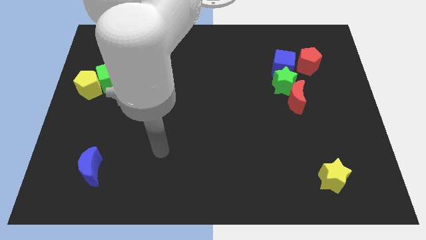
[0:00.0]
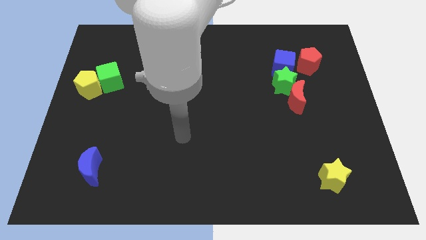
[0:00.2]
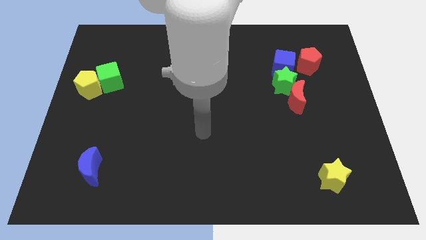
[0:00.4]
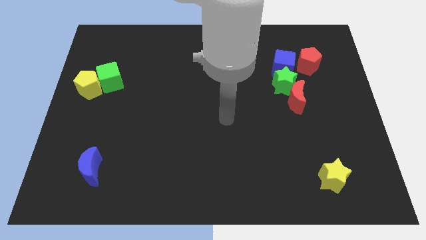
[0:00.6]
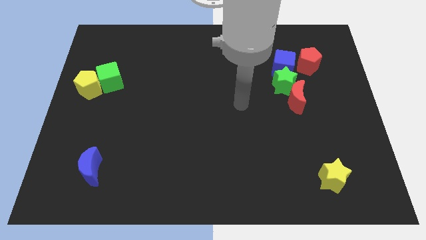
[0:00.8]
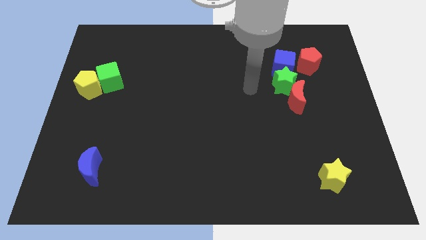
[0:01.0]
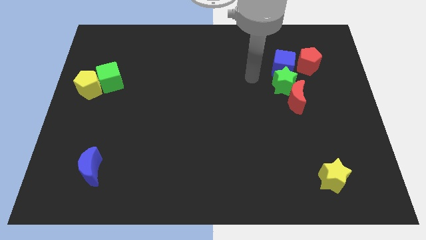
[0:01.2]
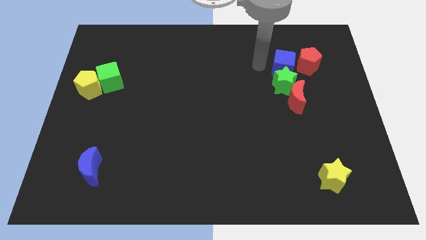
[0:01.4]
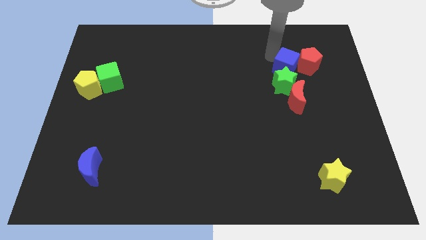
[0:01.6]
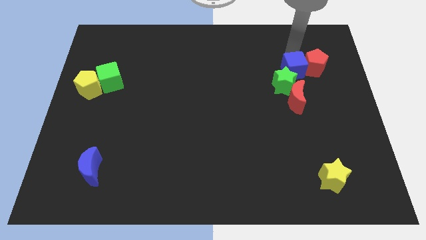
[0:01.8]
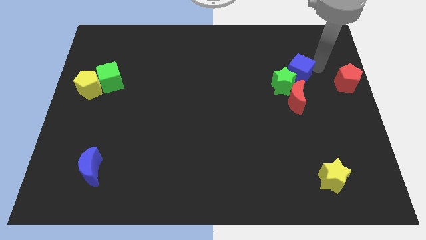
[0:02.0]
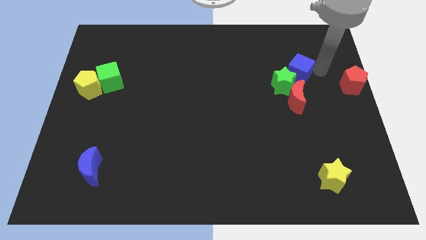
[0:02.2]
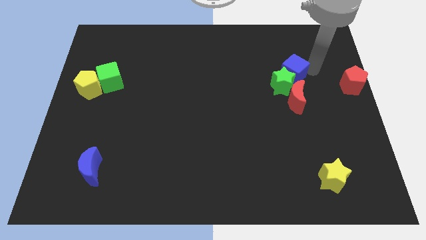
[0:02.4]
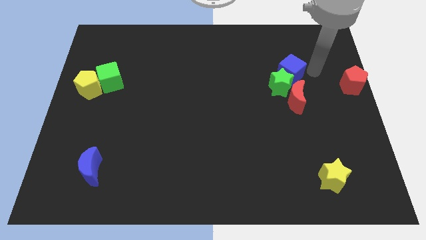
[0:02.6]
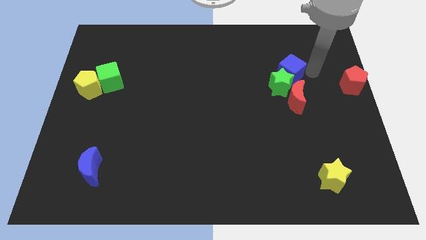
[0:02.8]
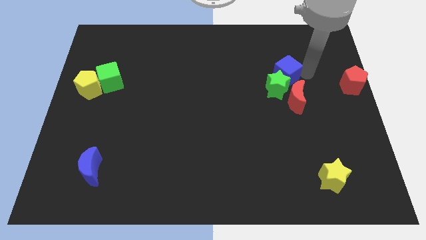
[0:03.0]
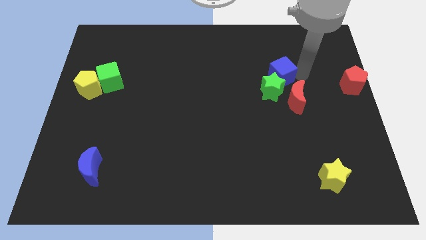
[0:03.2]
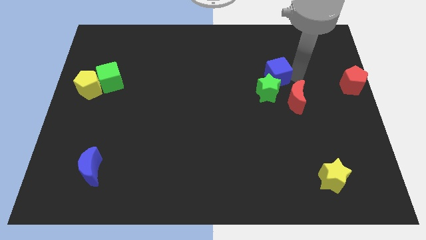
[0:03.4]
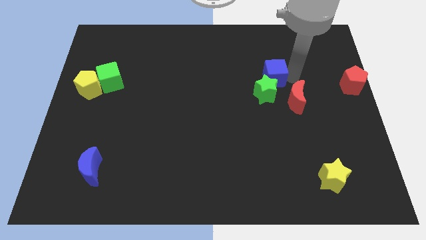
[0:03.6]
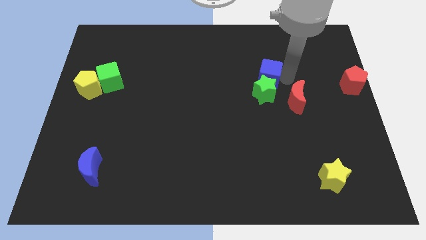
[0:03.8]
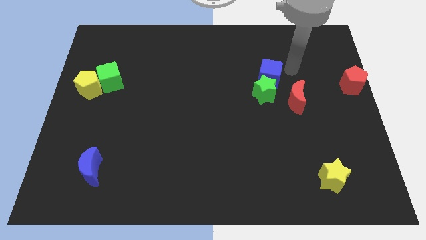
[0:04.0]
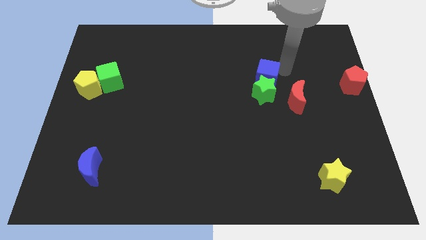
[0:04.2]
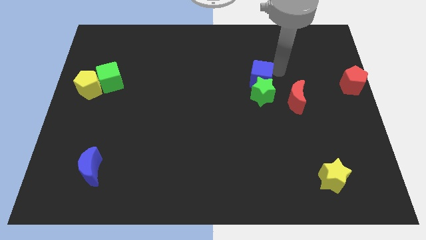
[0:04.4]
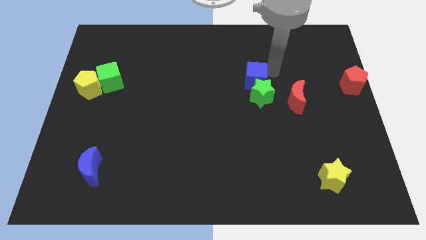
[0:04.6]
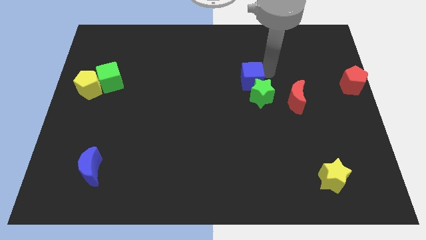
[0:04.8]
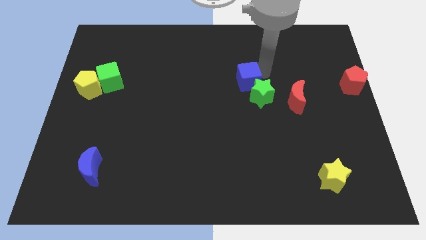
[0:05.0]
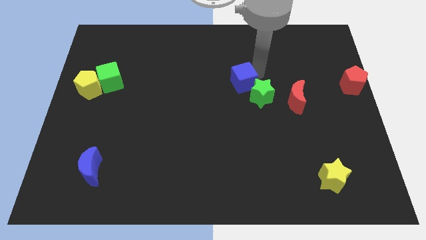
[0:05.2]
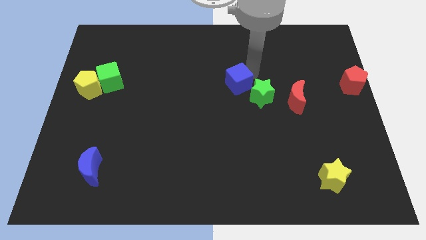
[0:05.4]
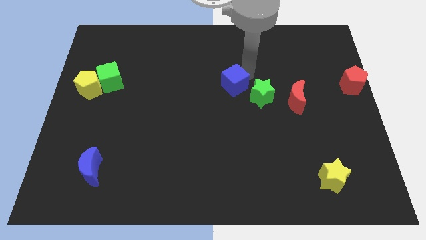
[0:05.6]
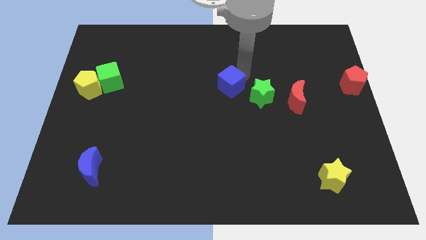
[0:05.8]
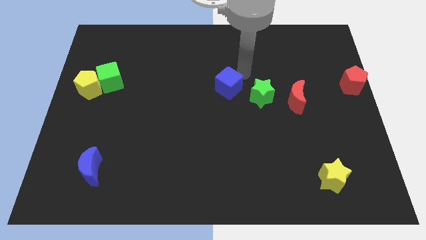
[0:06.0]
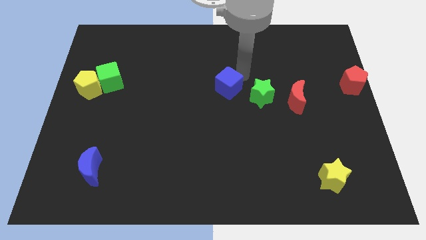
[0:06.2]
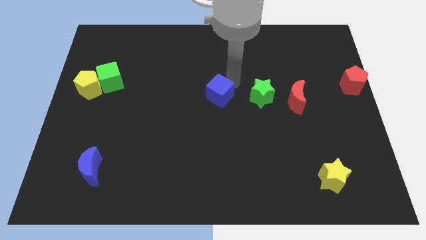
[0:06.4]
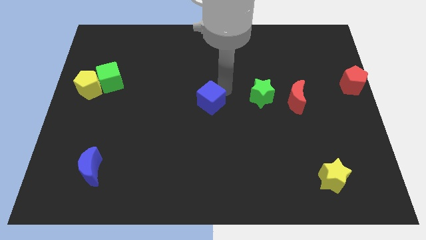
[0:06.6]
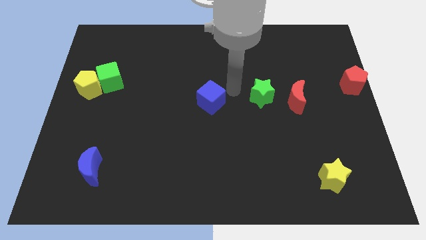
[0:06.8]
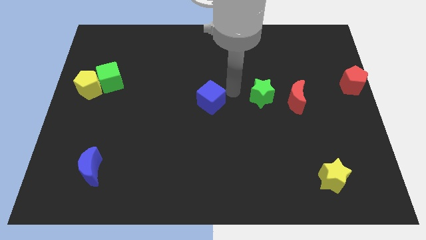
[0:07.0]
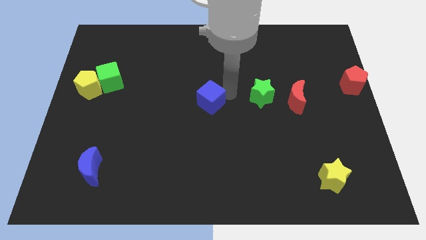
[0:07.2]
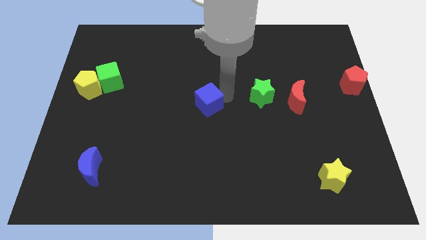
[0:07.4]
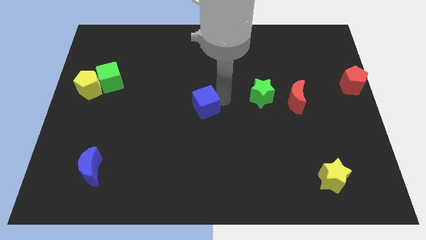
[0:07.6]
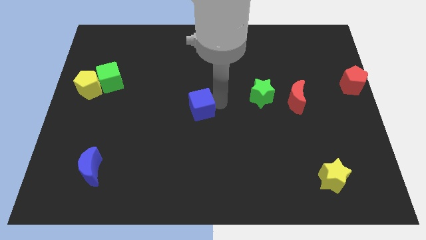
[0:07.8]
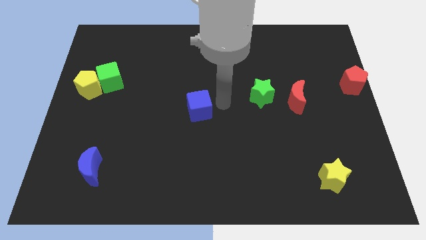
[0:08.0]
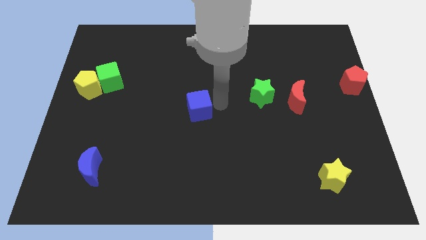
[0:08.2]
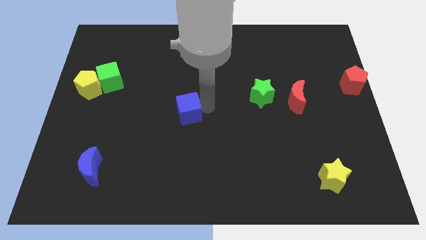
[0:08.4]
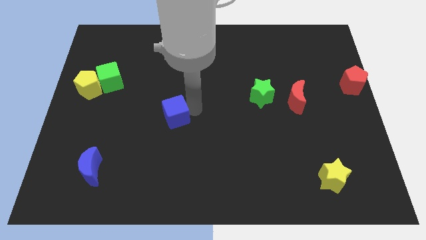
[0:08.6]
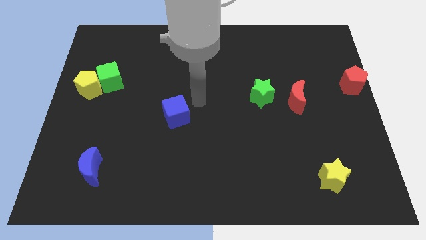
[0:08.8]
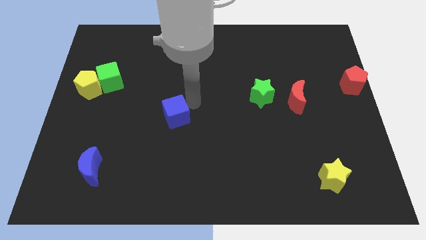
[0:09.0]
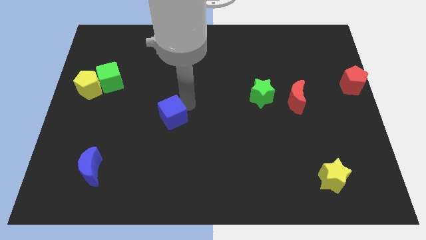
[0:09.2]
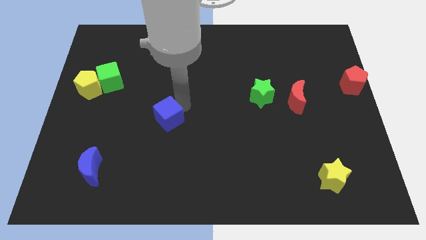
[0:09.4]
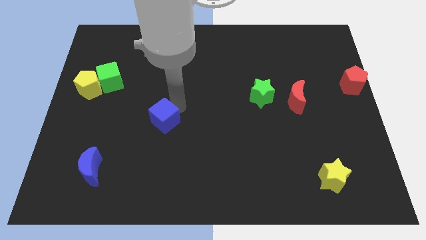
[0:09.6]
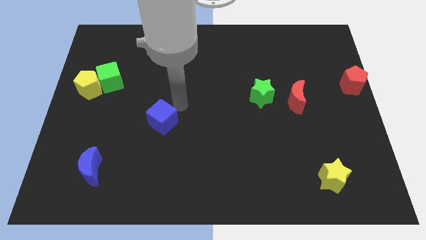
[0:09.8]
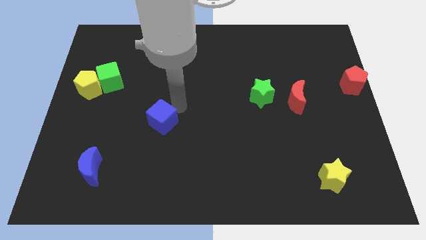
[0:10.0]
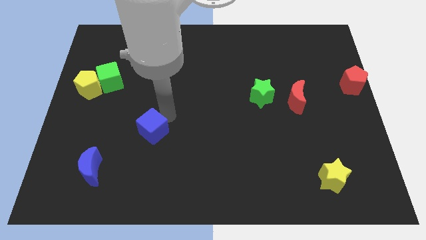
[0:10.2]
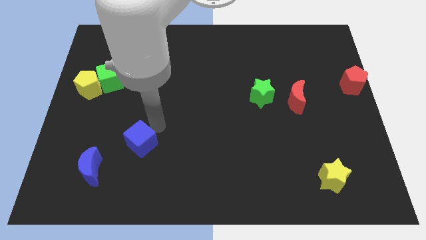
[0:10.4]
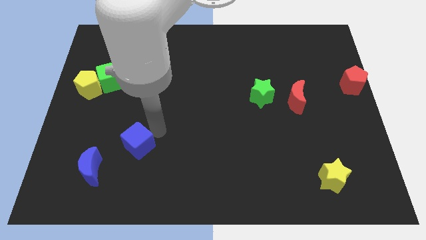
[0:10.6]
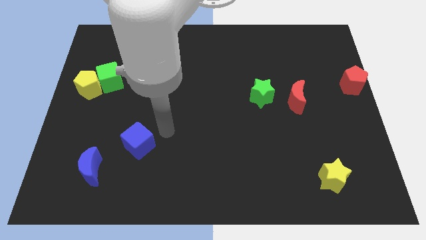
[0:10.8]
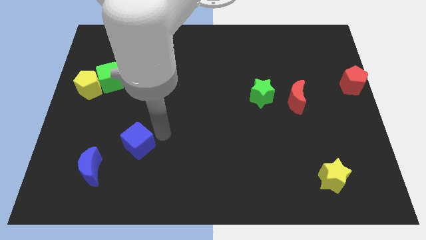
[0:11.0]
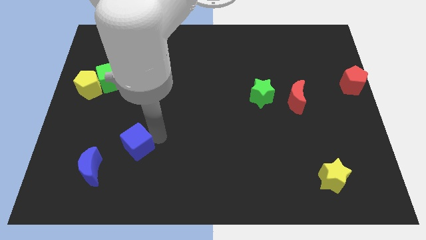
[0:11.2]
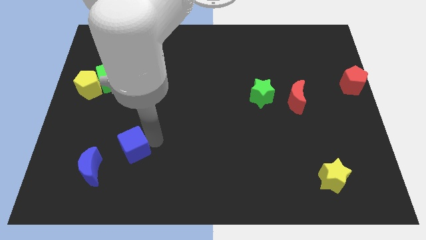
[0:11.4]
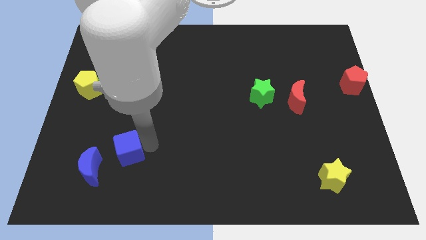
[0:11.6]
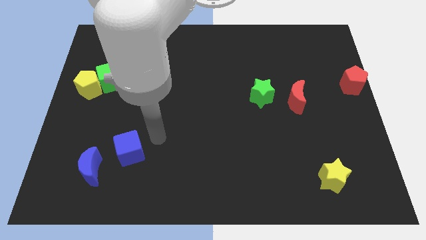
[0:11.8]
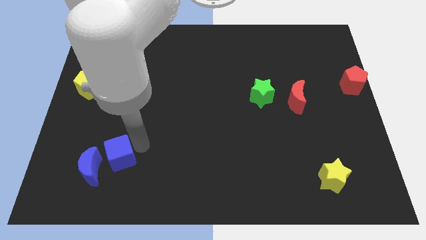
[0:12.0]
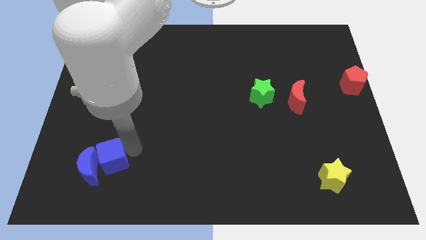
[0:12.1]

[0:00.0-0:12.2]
slide the blue cube to the blue moon

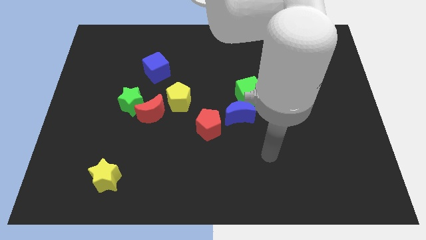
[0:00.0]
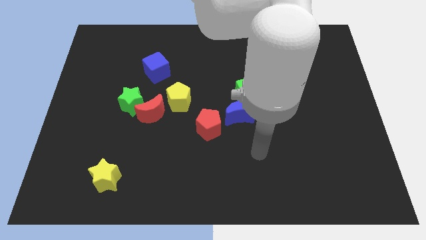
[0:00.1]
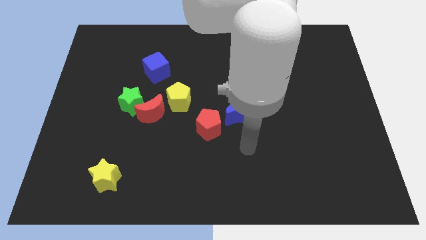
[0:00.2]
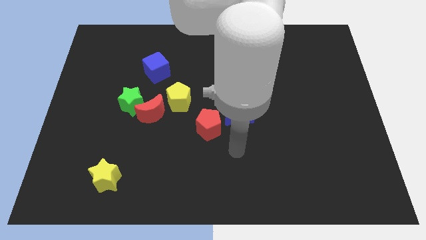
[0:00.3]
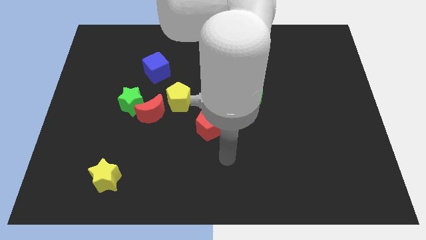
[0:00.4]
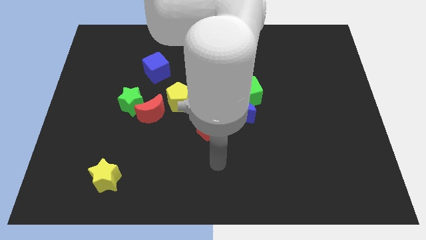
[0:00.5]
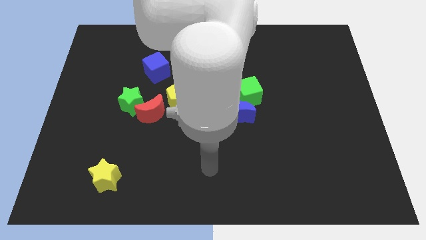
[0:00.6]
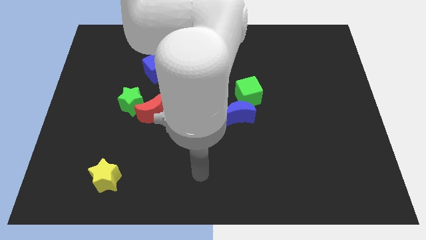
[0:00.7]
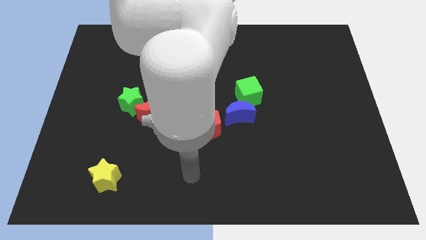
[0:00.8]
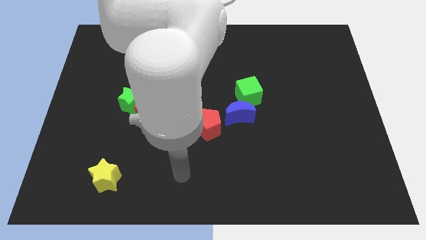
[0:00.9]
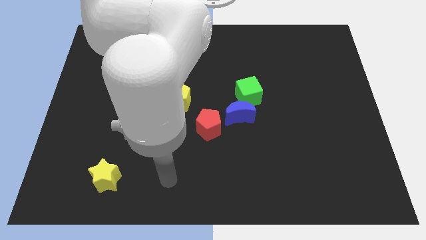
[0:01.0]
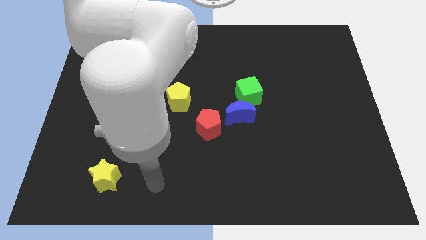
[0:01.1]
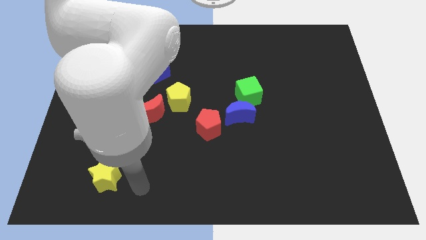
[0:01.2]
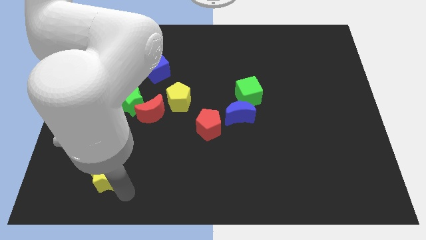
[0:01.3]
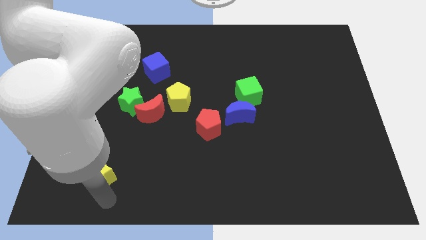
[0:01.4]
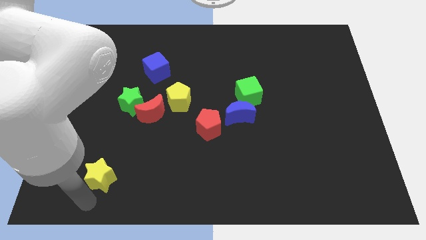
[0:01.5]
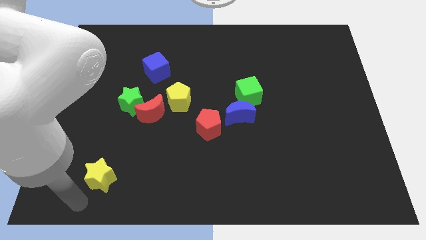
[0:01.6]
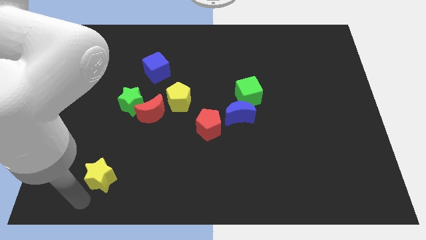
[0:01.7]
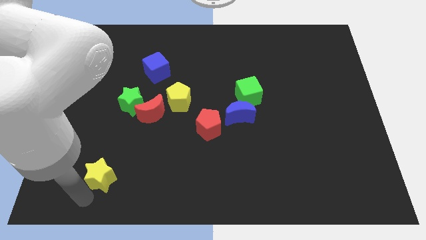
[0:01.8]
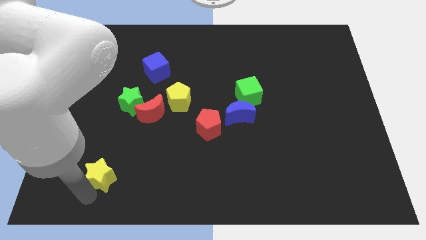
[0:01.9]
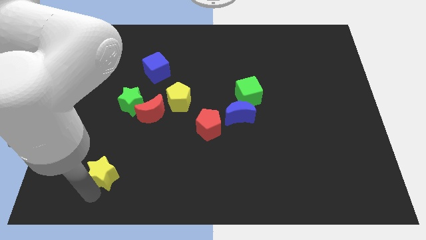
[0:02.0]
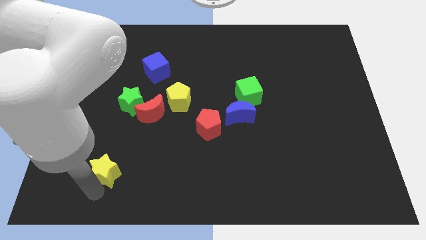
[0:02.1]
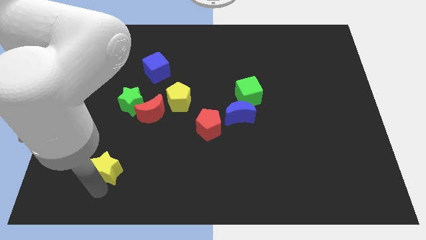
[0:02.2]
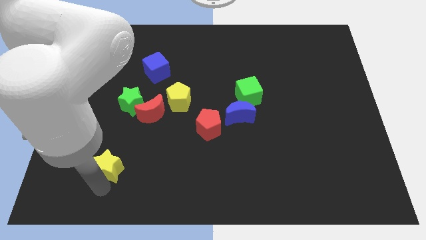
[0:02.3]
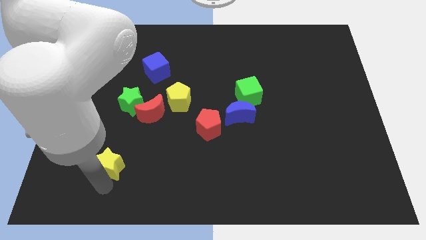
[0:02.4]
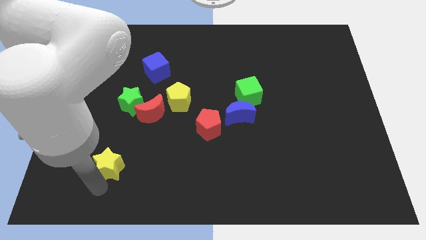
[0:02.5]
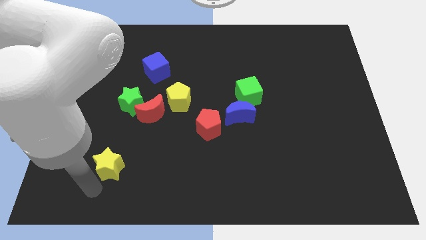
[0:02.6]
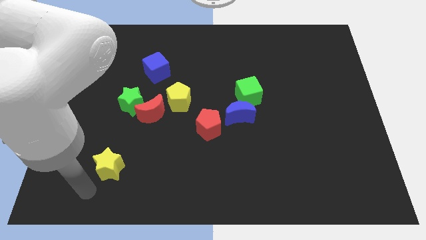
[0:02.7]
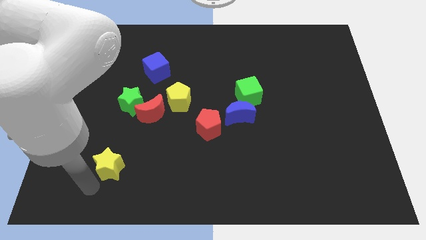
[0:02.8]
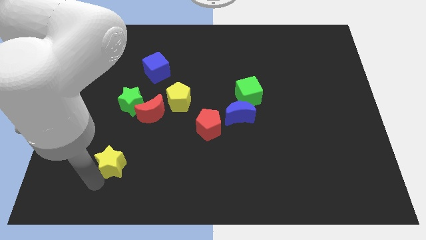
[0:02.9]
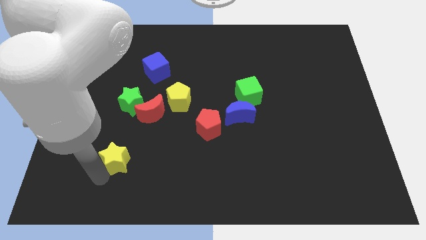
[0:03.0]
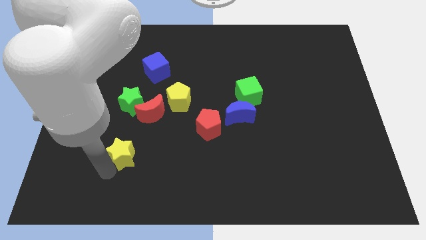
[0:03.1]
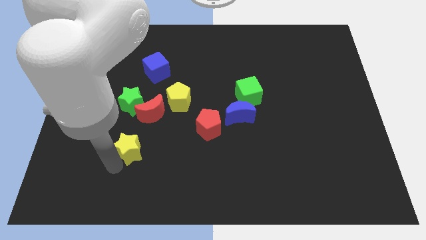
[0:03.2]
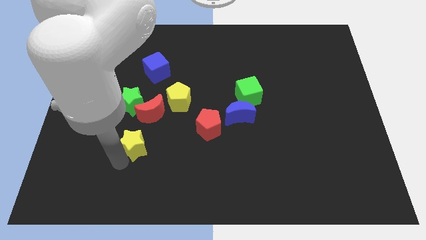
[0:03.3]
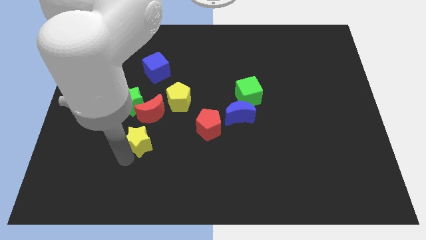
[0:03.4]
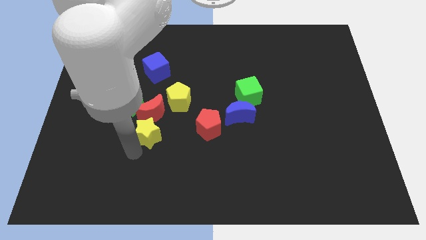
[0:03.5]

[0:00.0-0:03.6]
move the yellow star next to the red moon
